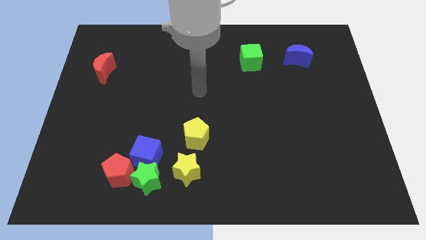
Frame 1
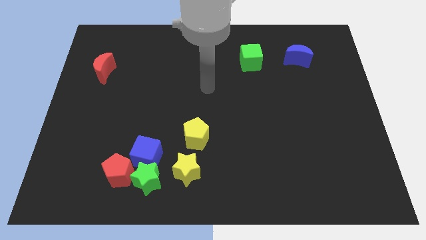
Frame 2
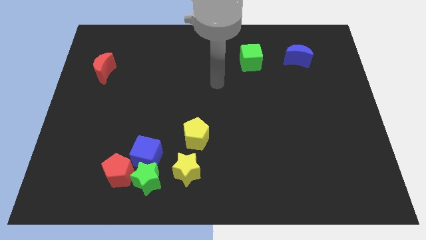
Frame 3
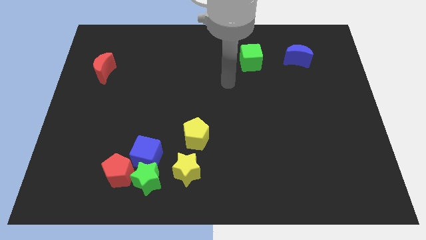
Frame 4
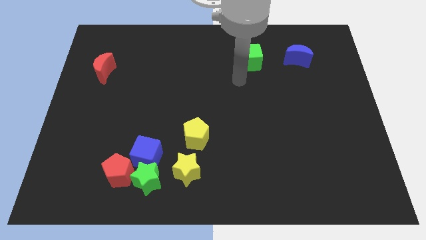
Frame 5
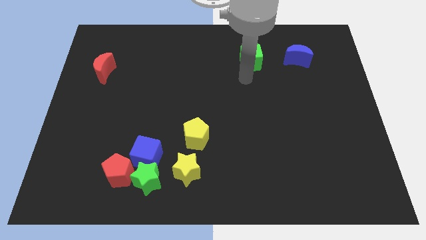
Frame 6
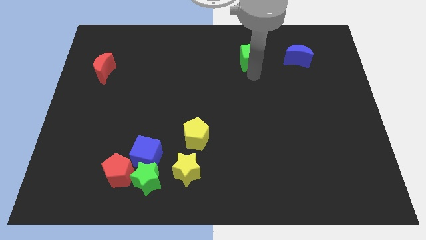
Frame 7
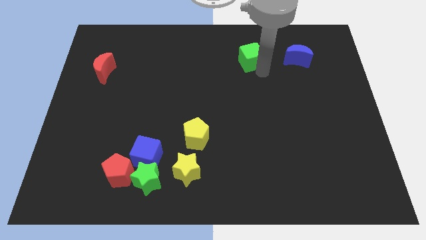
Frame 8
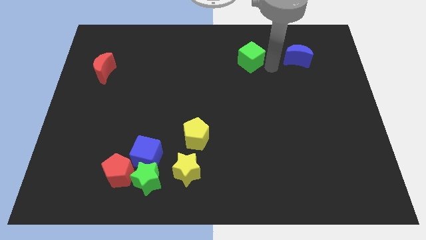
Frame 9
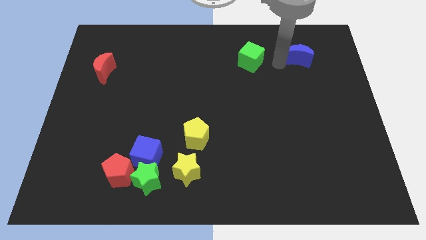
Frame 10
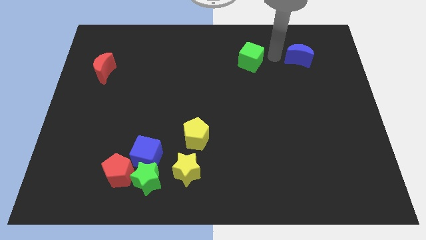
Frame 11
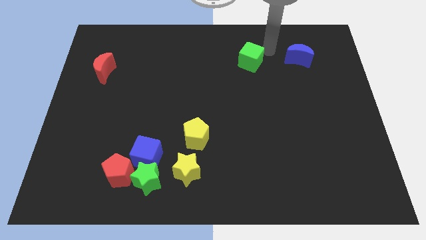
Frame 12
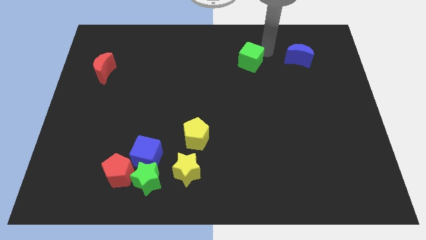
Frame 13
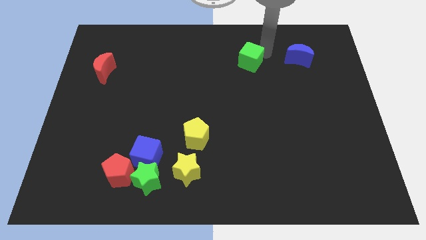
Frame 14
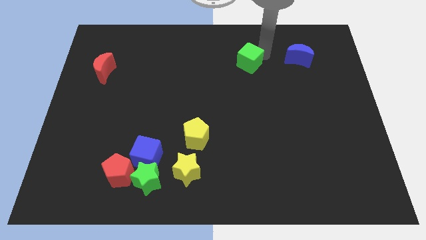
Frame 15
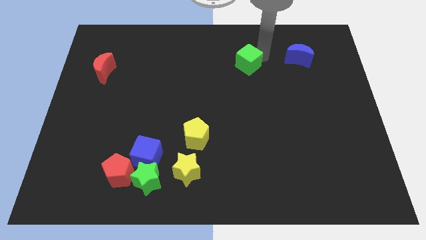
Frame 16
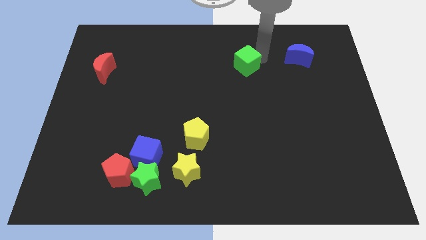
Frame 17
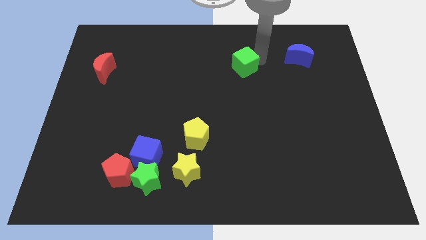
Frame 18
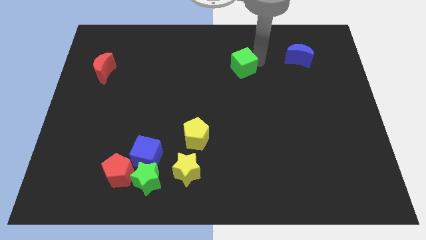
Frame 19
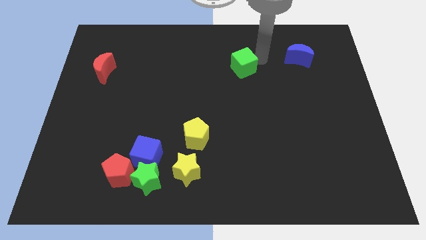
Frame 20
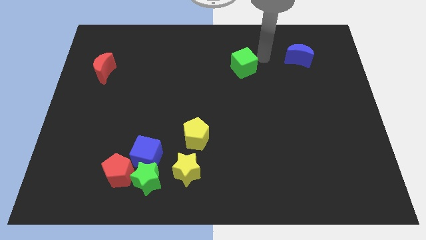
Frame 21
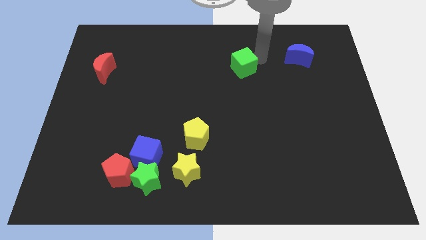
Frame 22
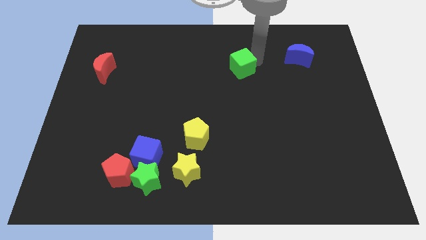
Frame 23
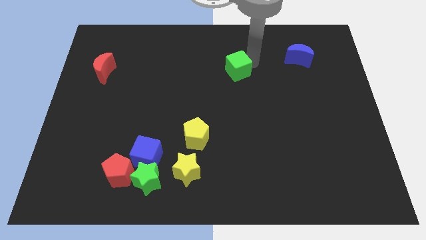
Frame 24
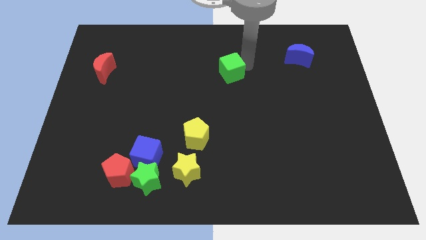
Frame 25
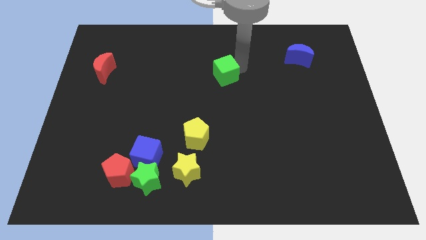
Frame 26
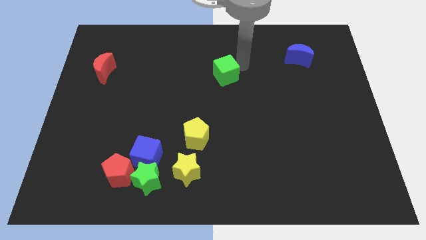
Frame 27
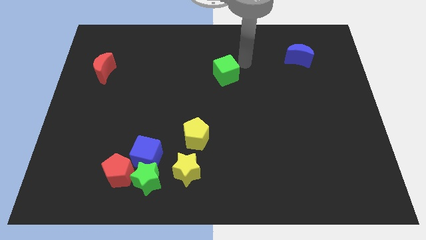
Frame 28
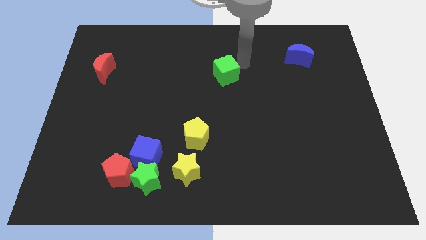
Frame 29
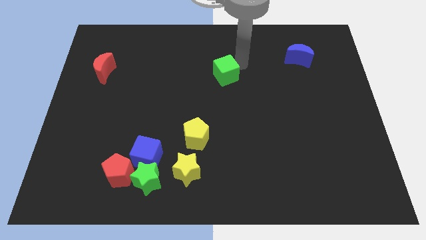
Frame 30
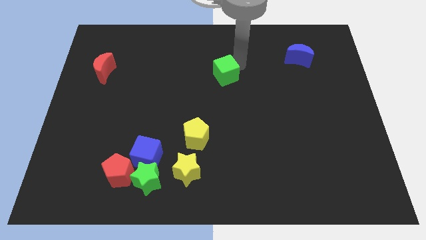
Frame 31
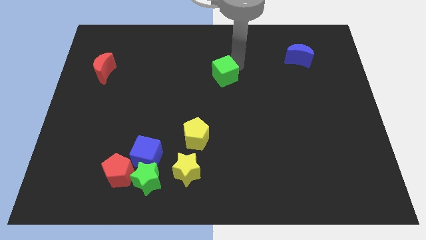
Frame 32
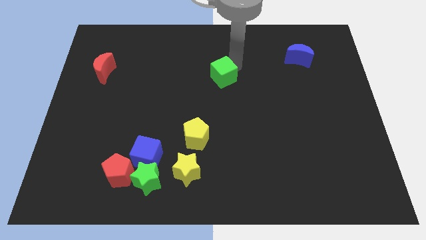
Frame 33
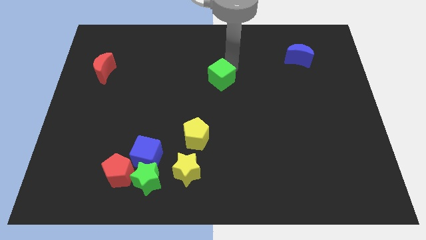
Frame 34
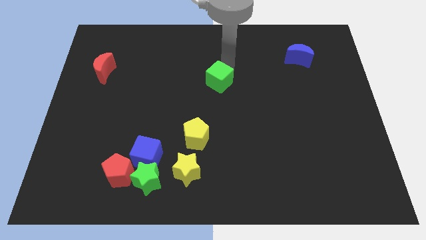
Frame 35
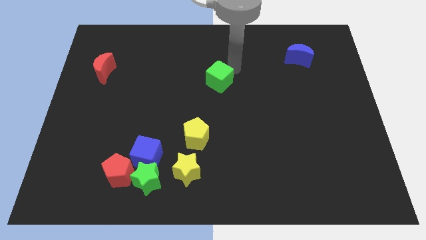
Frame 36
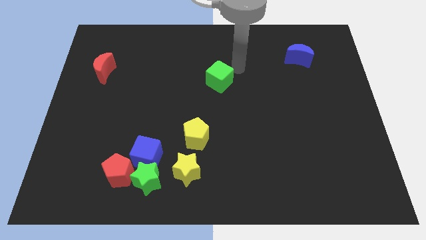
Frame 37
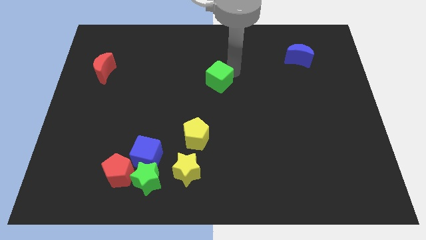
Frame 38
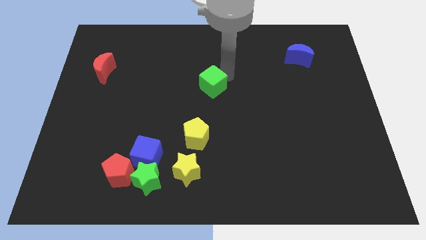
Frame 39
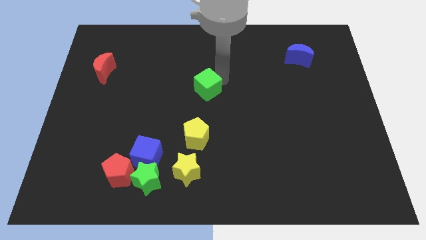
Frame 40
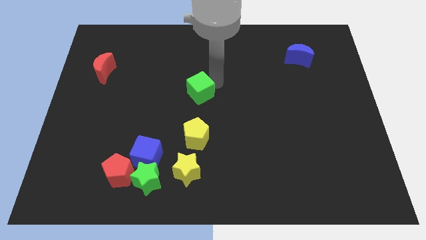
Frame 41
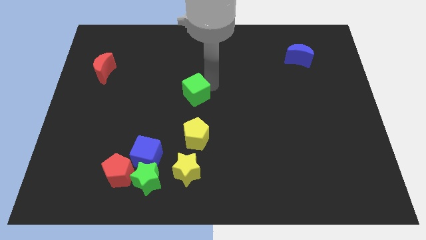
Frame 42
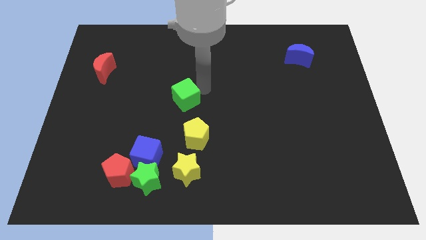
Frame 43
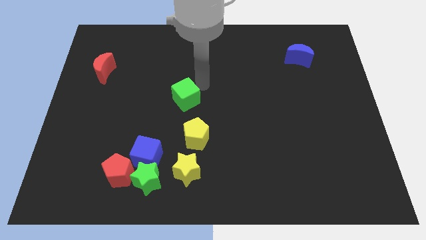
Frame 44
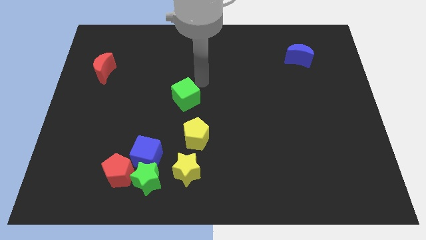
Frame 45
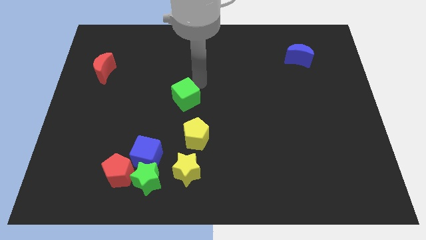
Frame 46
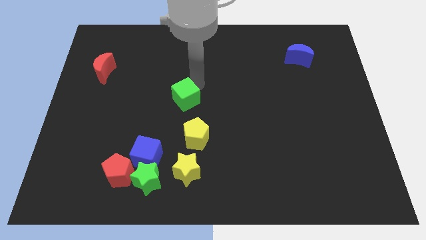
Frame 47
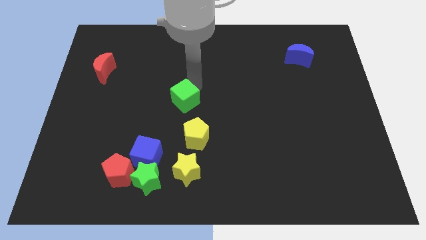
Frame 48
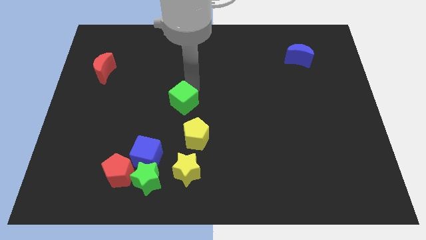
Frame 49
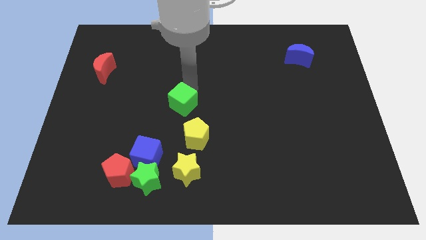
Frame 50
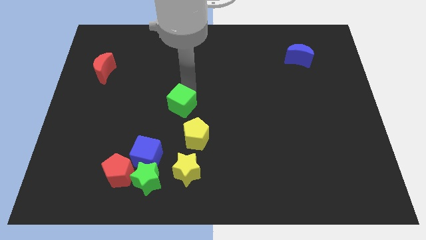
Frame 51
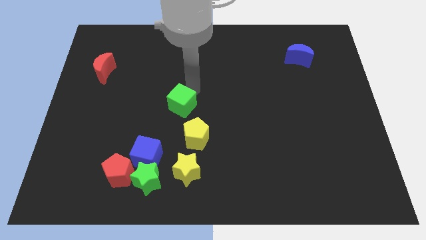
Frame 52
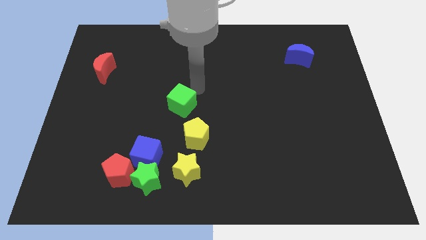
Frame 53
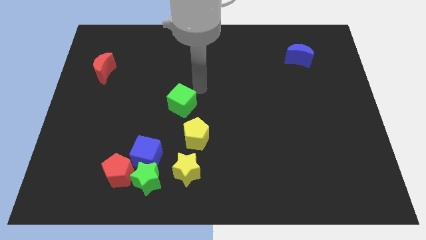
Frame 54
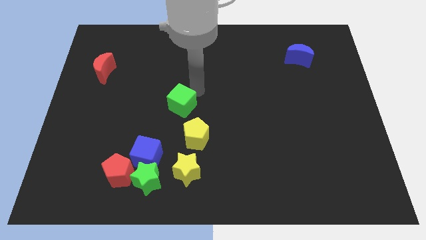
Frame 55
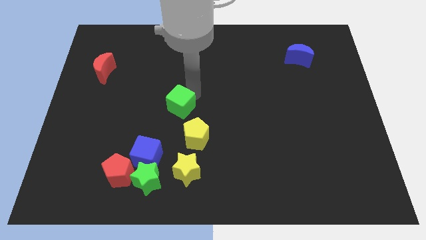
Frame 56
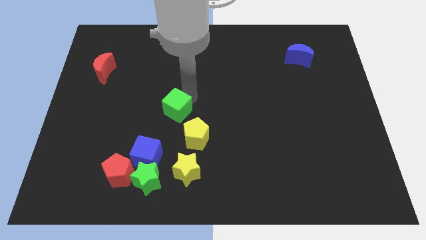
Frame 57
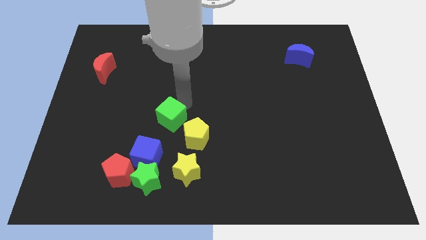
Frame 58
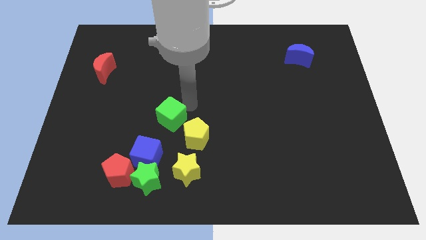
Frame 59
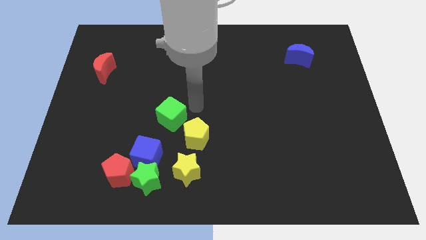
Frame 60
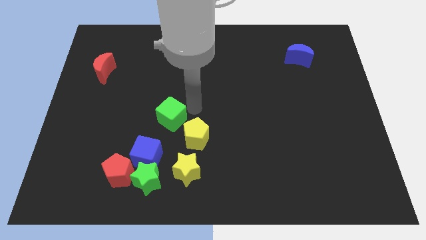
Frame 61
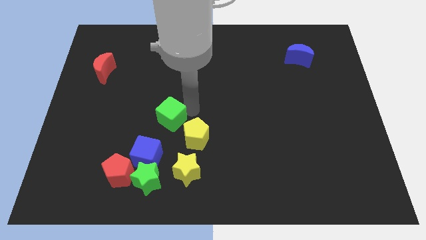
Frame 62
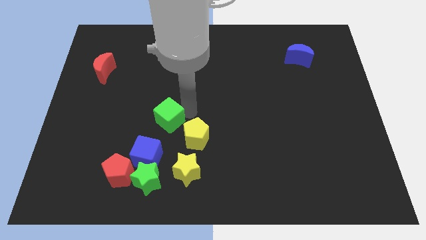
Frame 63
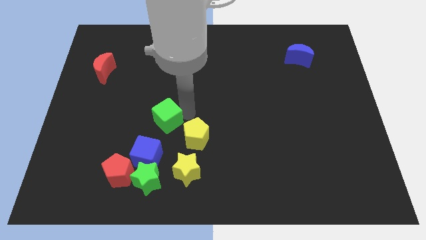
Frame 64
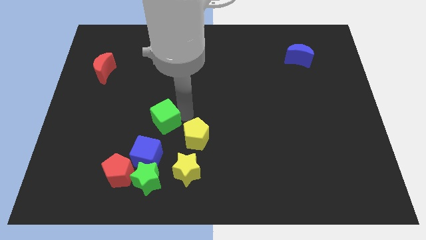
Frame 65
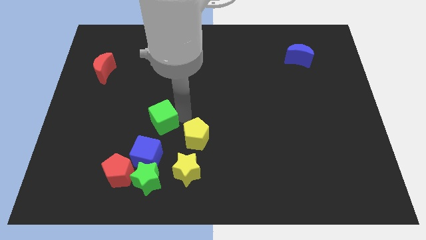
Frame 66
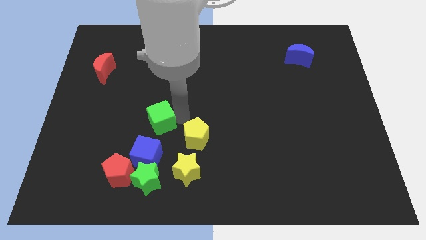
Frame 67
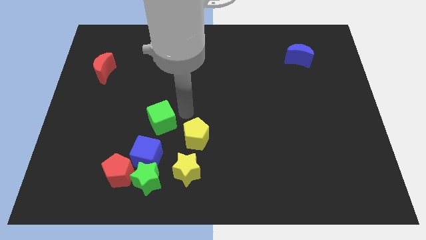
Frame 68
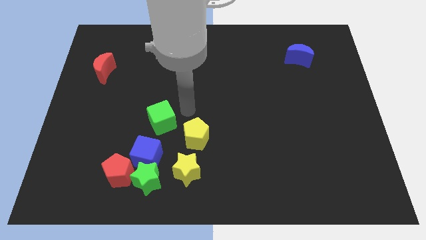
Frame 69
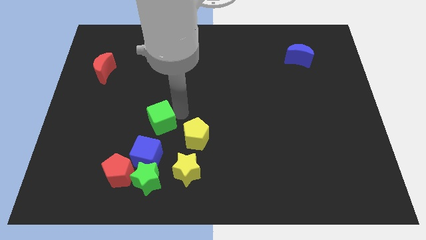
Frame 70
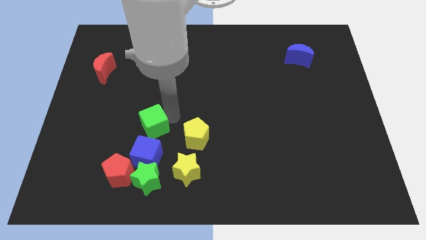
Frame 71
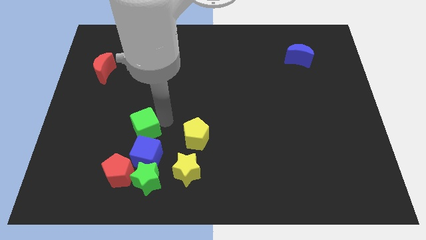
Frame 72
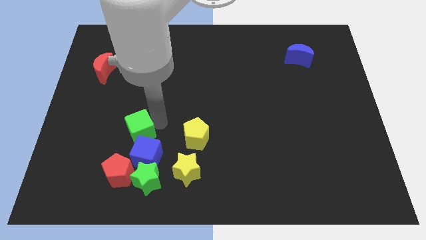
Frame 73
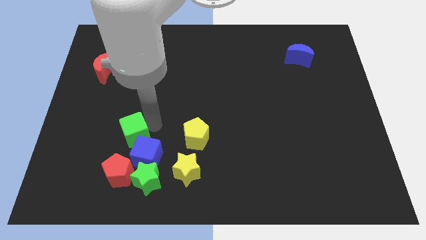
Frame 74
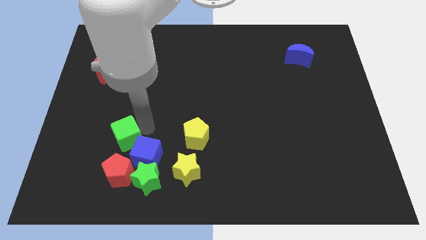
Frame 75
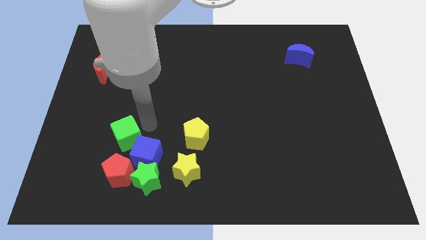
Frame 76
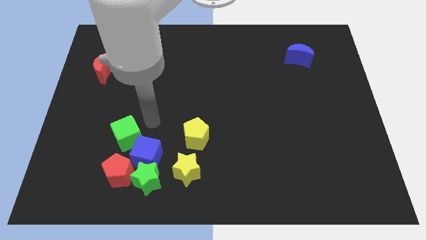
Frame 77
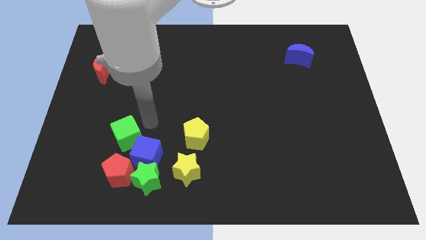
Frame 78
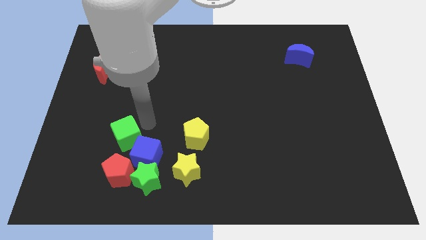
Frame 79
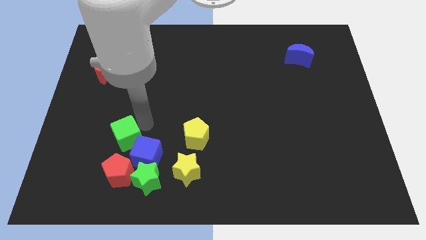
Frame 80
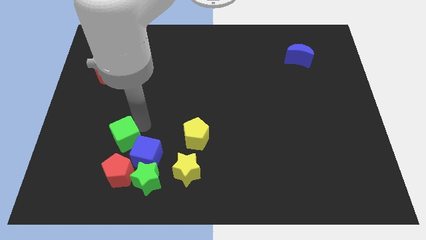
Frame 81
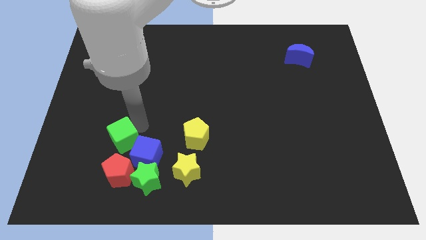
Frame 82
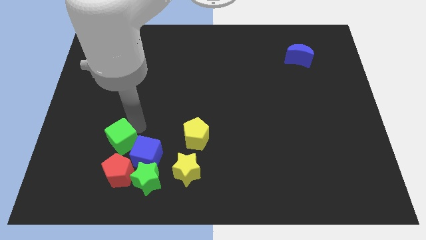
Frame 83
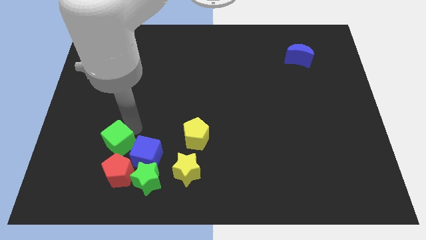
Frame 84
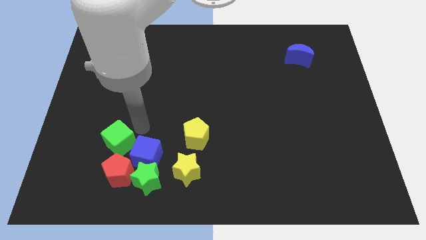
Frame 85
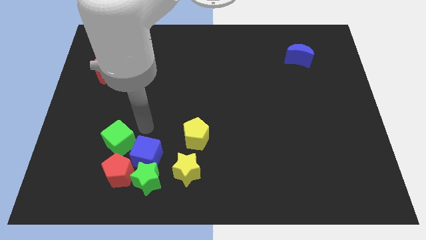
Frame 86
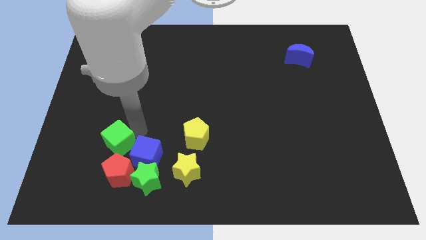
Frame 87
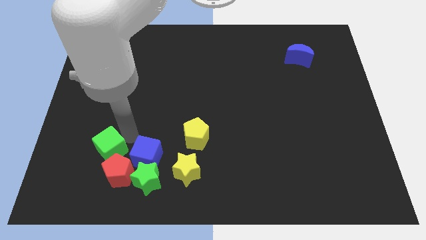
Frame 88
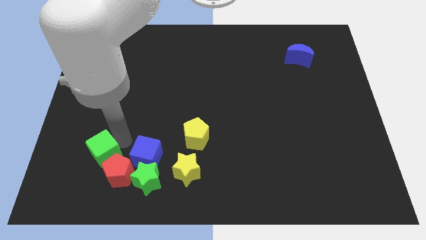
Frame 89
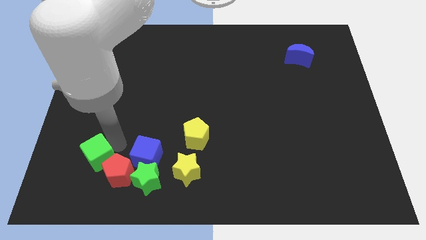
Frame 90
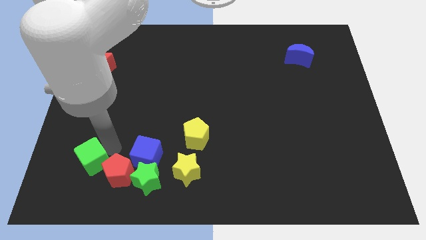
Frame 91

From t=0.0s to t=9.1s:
slide the green cube just left of the green star
